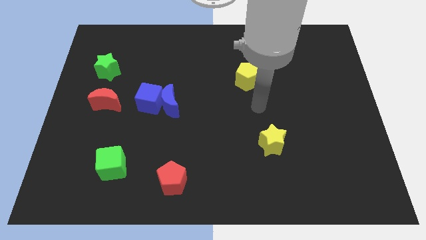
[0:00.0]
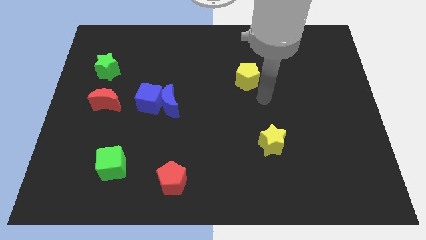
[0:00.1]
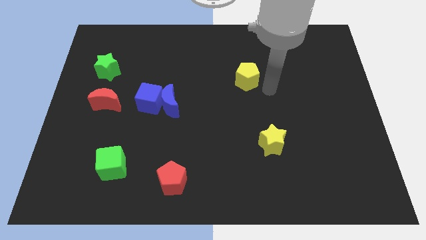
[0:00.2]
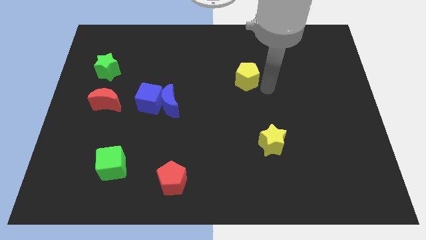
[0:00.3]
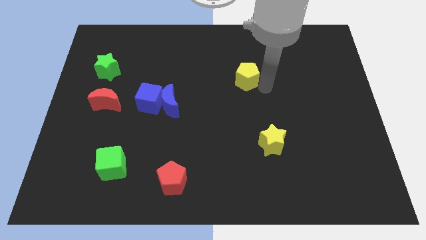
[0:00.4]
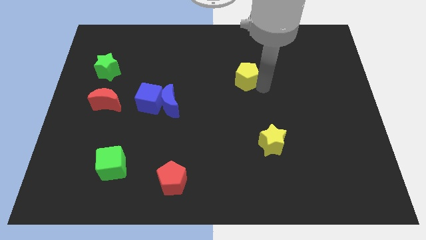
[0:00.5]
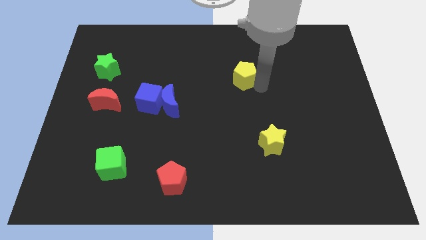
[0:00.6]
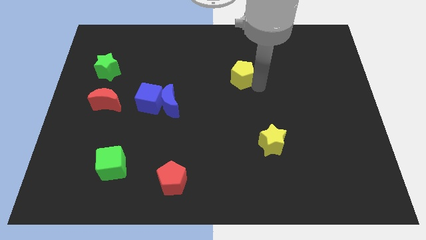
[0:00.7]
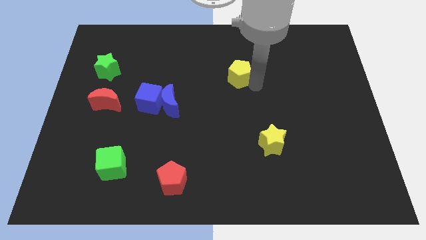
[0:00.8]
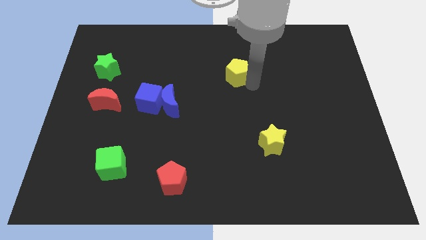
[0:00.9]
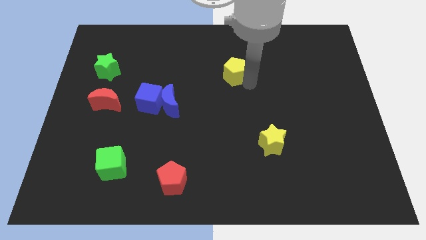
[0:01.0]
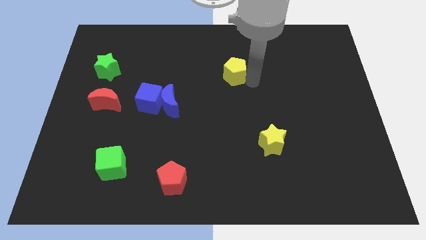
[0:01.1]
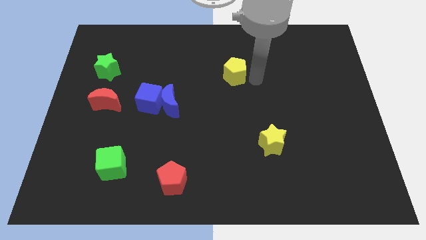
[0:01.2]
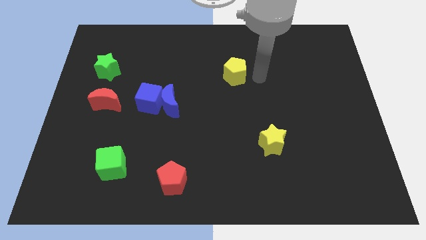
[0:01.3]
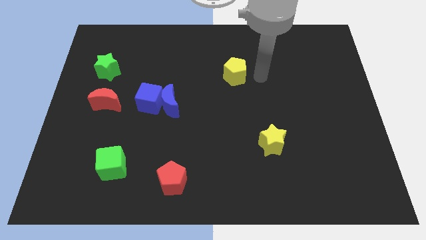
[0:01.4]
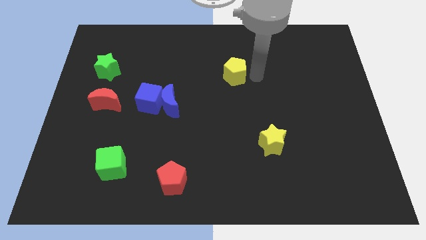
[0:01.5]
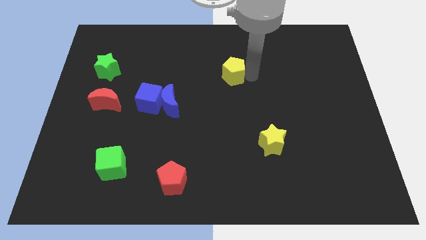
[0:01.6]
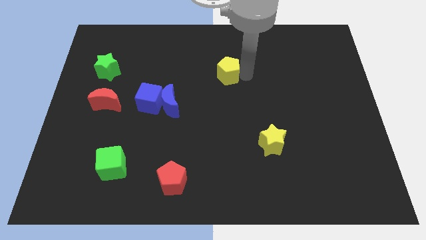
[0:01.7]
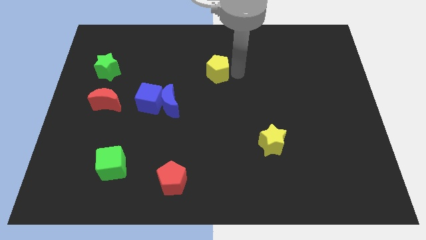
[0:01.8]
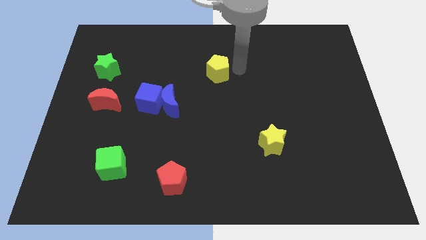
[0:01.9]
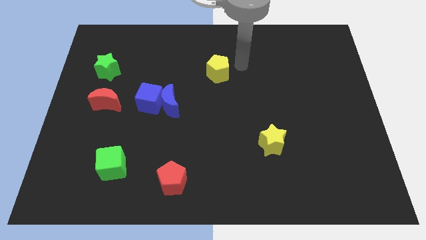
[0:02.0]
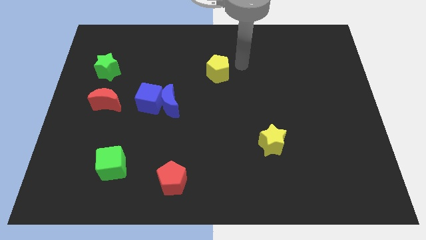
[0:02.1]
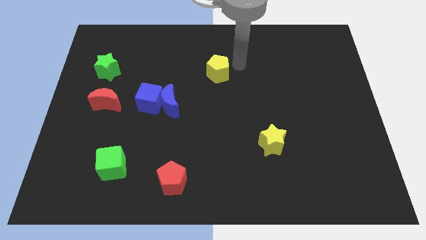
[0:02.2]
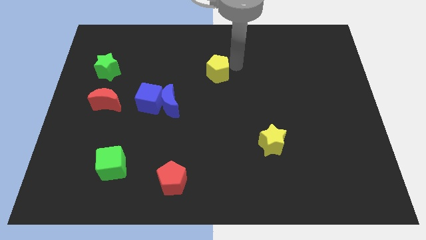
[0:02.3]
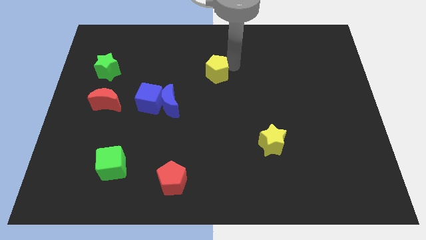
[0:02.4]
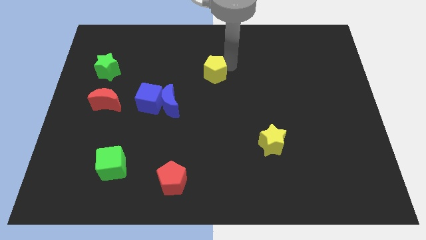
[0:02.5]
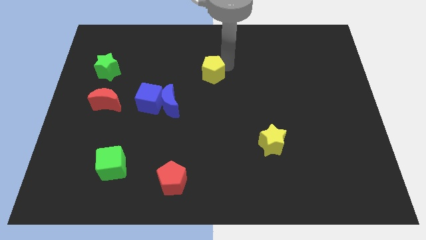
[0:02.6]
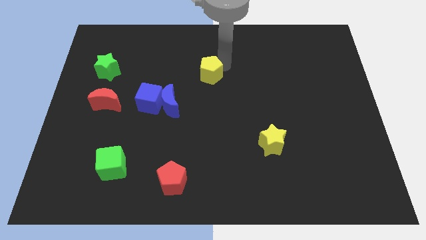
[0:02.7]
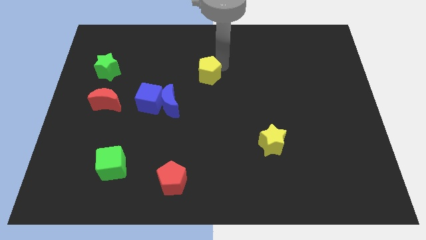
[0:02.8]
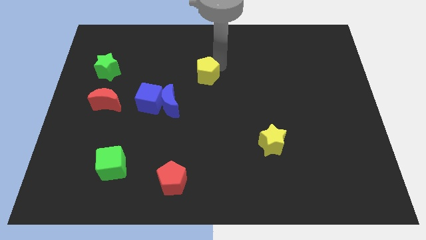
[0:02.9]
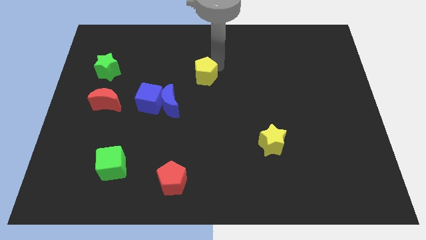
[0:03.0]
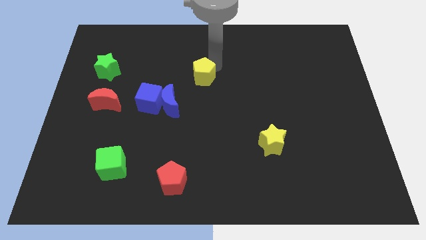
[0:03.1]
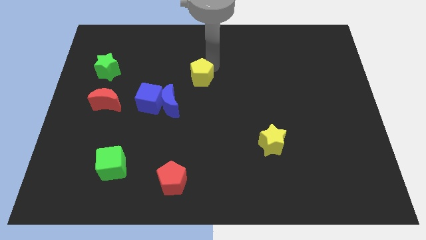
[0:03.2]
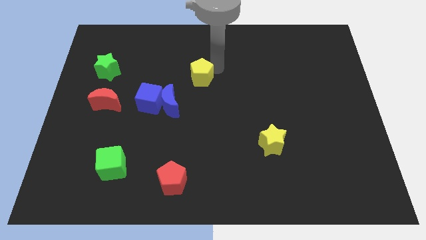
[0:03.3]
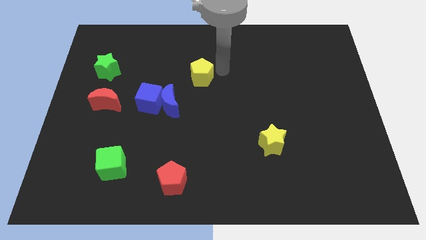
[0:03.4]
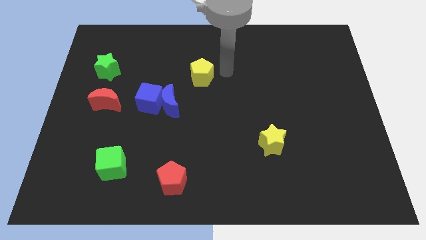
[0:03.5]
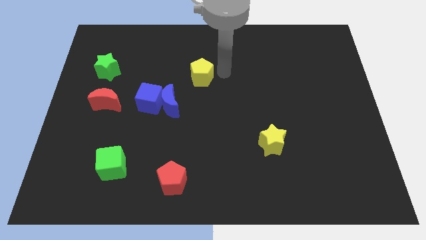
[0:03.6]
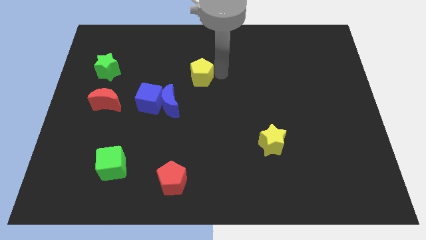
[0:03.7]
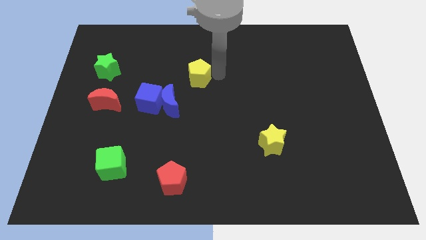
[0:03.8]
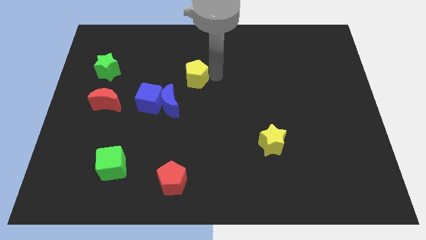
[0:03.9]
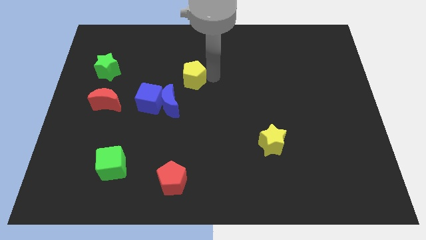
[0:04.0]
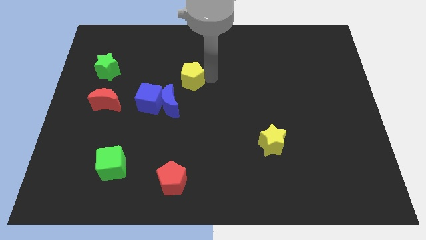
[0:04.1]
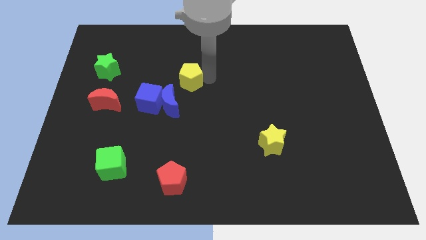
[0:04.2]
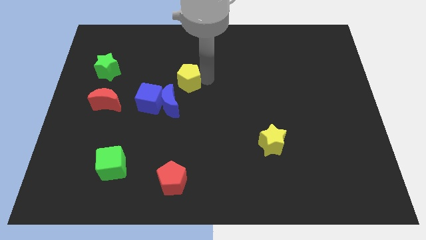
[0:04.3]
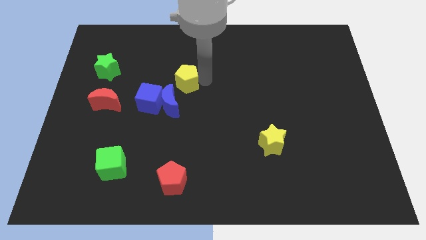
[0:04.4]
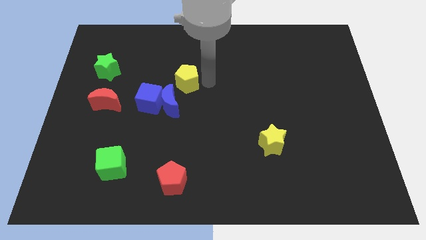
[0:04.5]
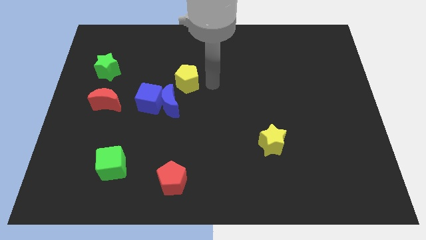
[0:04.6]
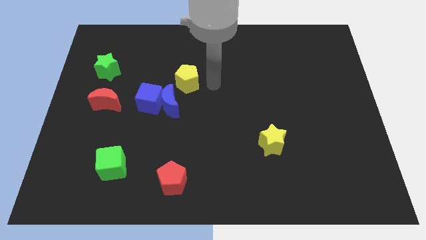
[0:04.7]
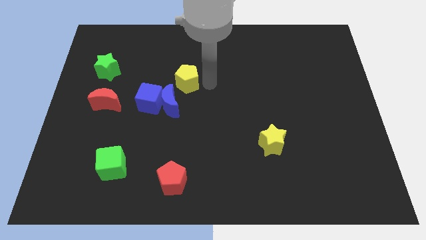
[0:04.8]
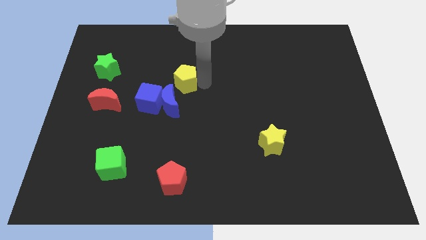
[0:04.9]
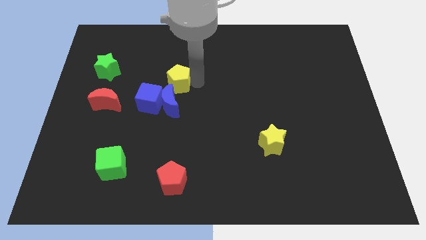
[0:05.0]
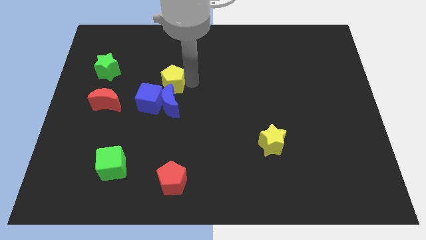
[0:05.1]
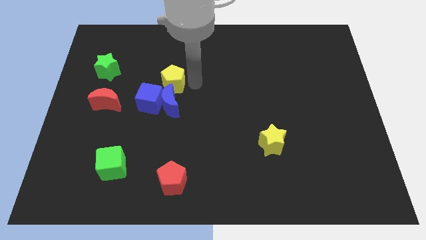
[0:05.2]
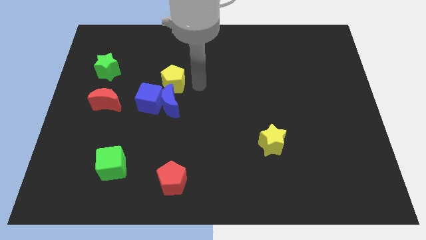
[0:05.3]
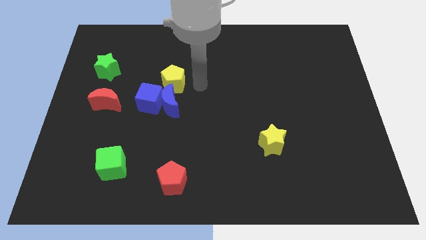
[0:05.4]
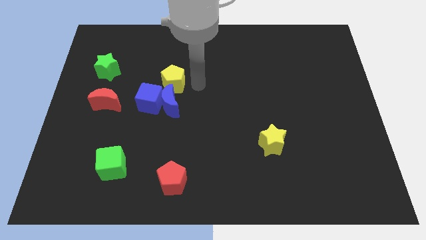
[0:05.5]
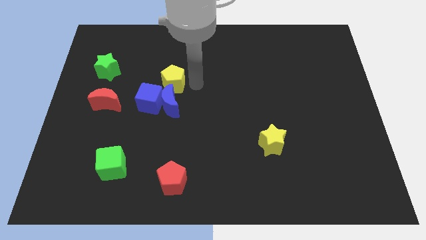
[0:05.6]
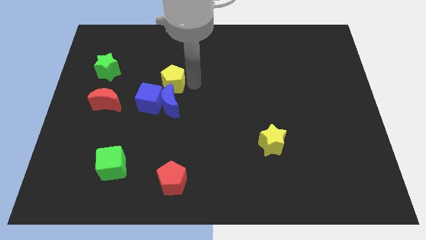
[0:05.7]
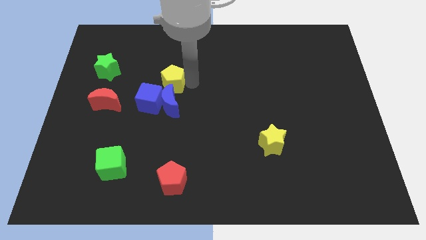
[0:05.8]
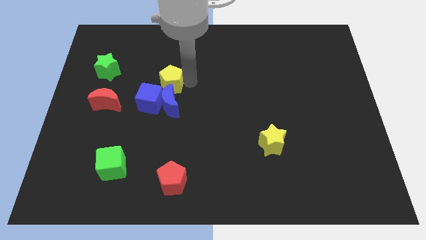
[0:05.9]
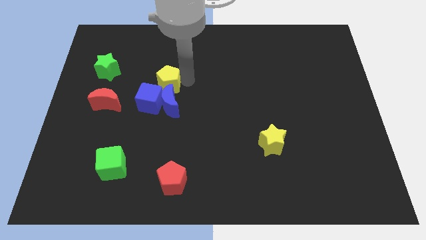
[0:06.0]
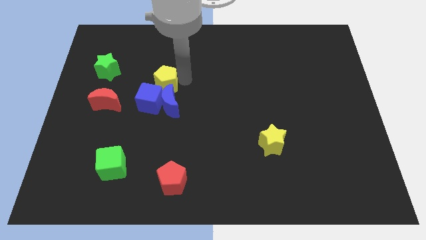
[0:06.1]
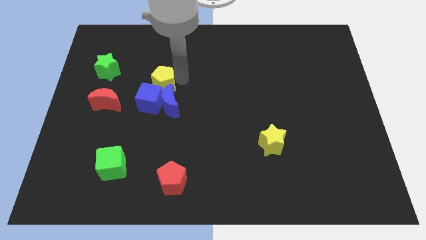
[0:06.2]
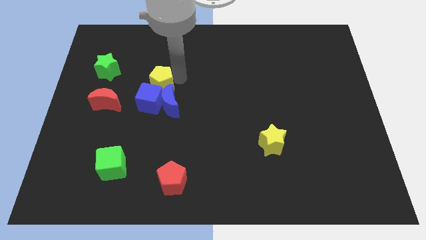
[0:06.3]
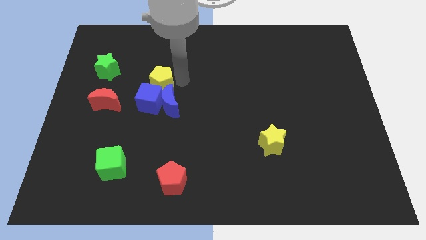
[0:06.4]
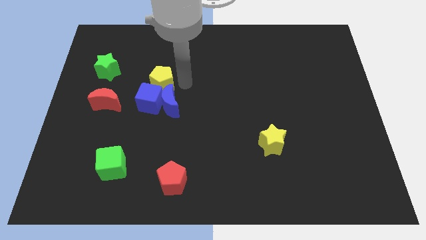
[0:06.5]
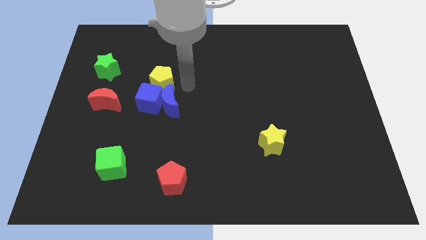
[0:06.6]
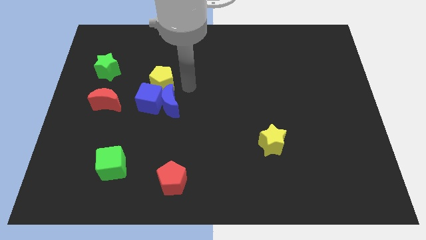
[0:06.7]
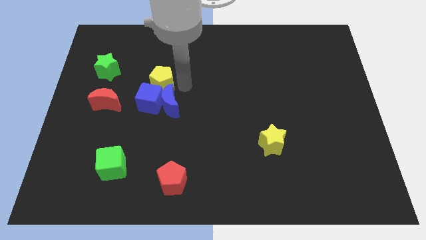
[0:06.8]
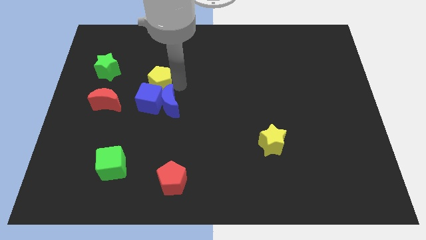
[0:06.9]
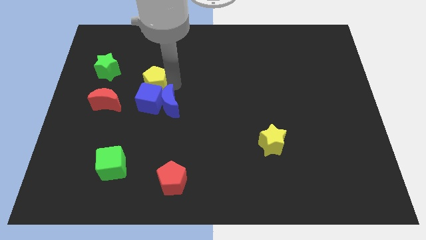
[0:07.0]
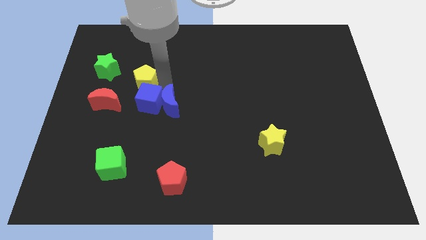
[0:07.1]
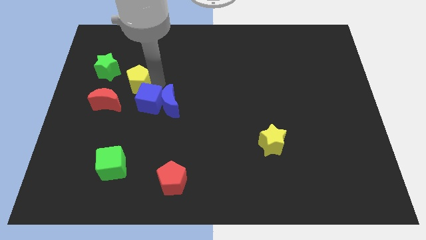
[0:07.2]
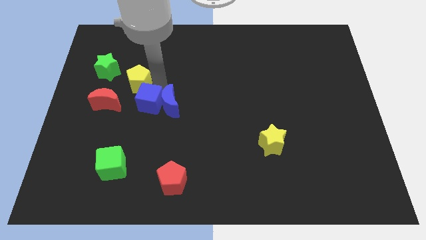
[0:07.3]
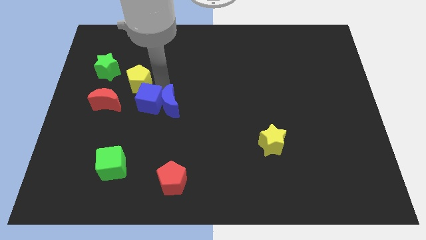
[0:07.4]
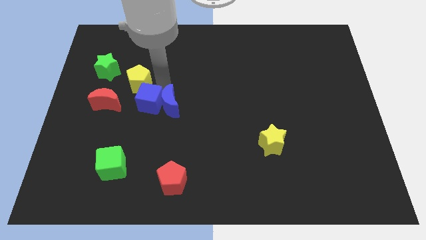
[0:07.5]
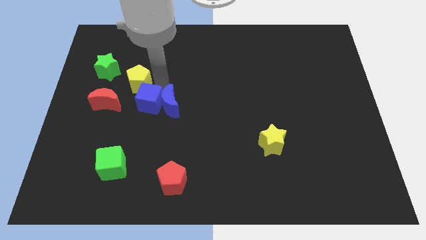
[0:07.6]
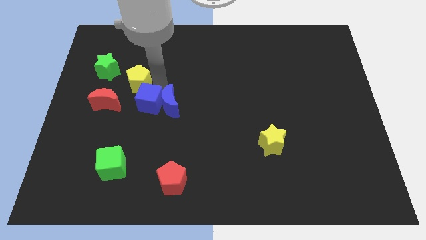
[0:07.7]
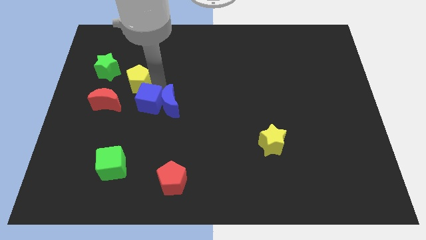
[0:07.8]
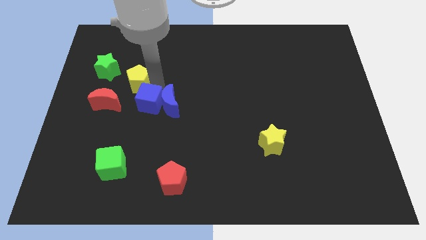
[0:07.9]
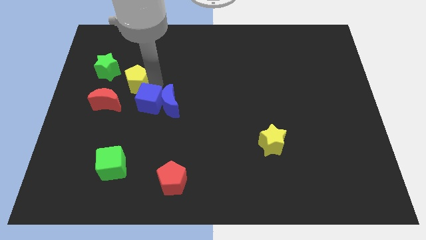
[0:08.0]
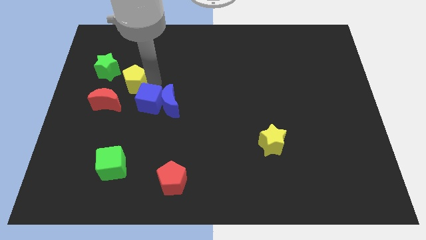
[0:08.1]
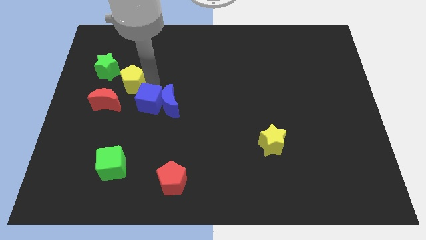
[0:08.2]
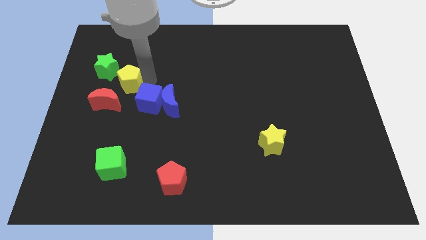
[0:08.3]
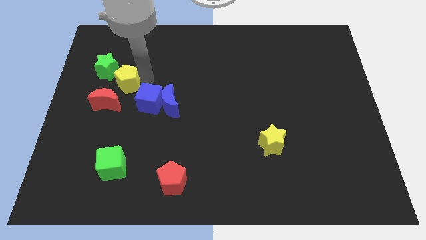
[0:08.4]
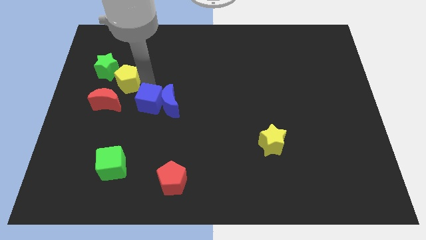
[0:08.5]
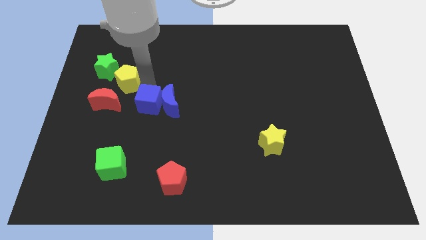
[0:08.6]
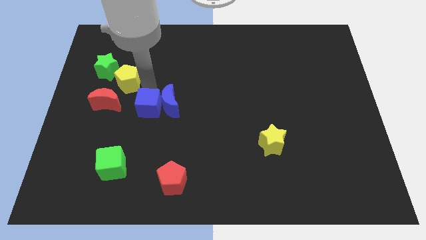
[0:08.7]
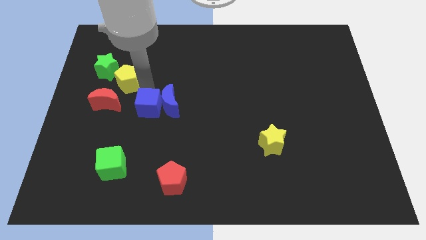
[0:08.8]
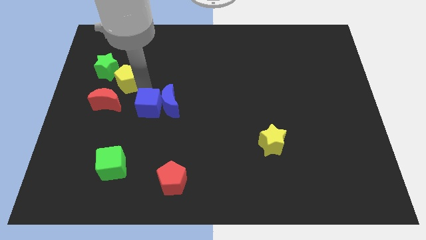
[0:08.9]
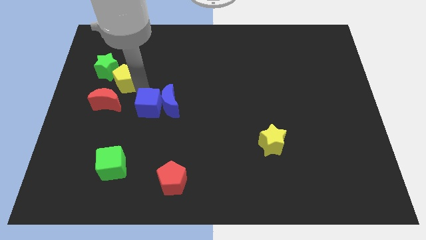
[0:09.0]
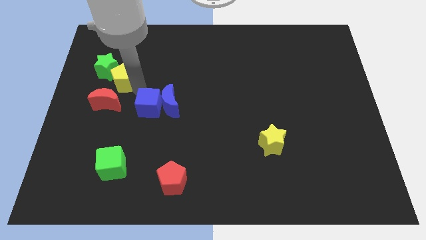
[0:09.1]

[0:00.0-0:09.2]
put the yellow pentagon next to the green star
